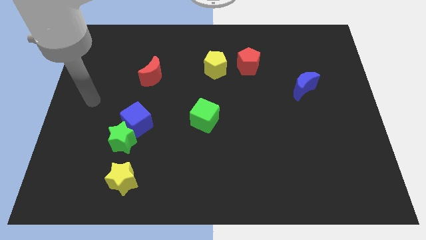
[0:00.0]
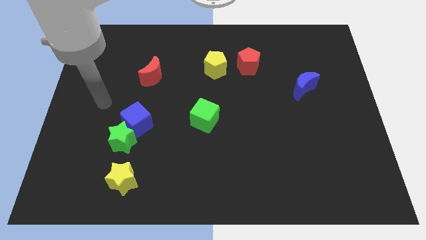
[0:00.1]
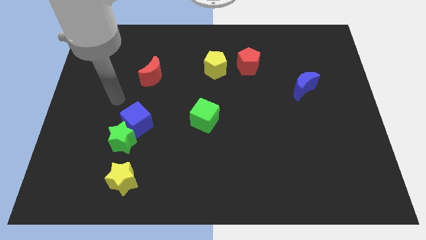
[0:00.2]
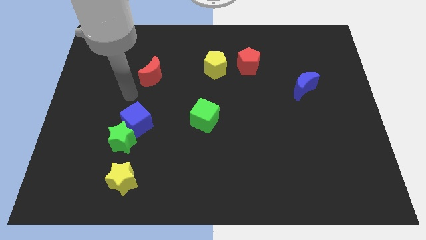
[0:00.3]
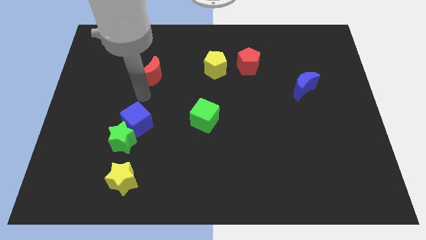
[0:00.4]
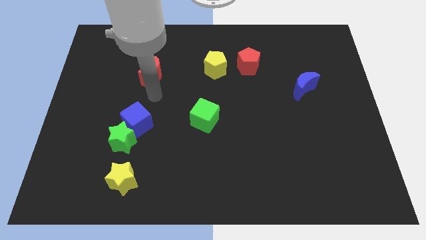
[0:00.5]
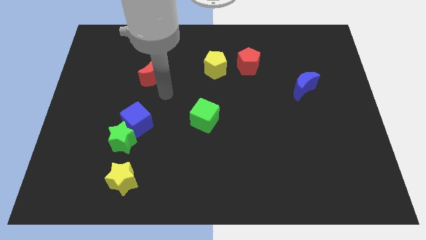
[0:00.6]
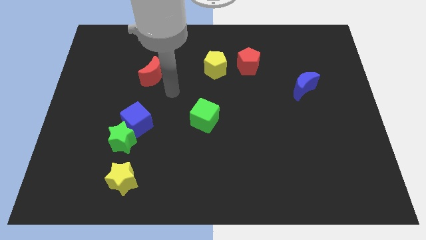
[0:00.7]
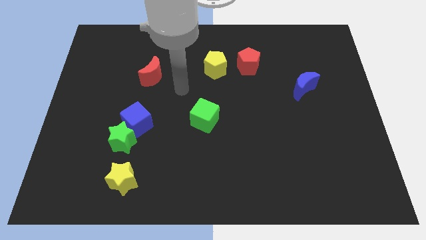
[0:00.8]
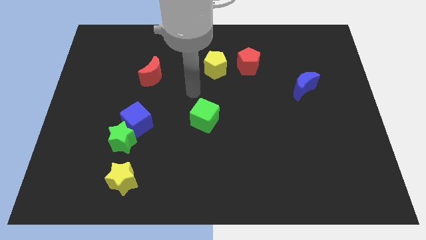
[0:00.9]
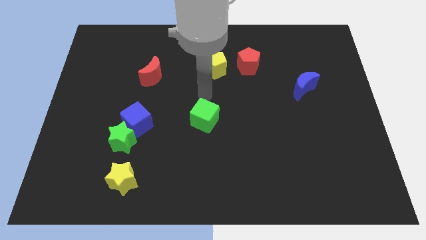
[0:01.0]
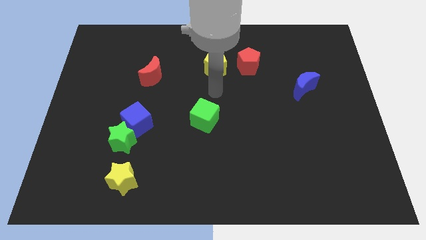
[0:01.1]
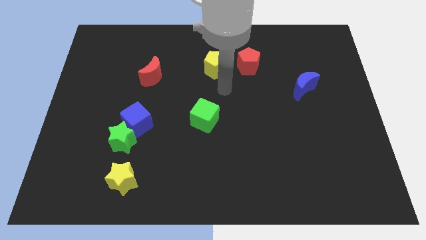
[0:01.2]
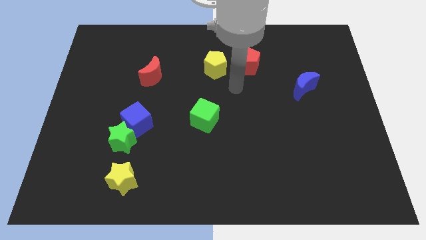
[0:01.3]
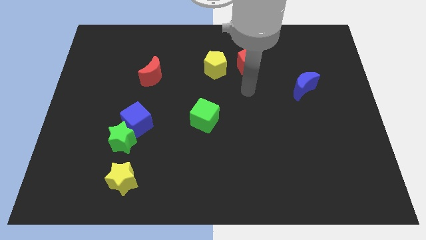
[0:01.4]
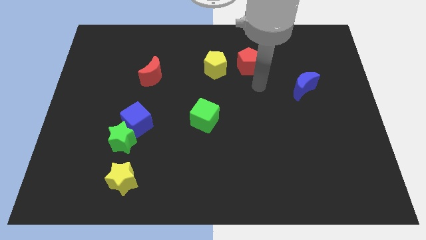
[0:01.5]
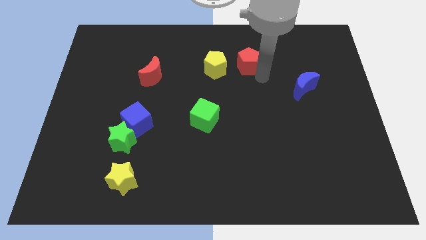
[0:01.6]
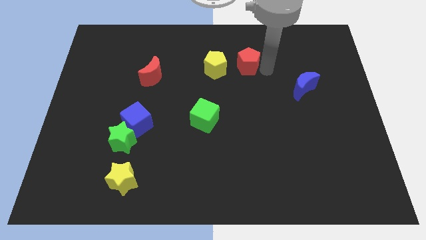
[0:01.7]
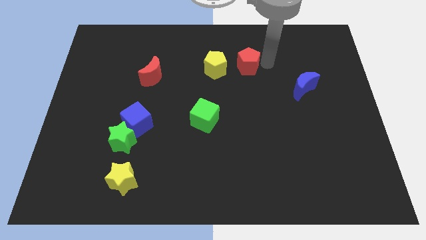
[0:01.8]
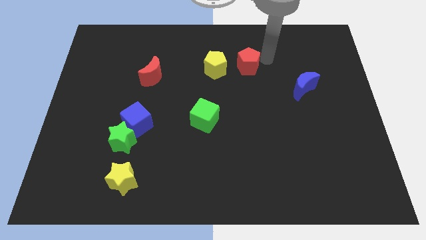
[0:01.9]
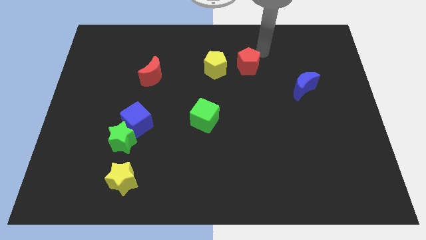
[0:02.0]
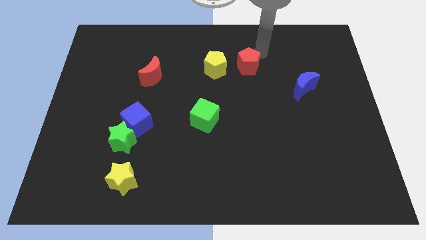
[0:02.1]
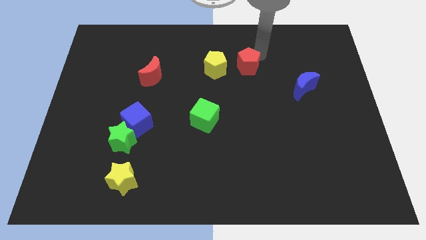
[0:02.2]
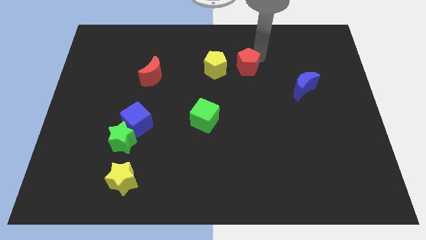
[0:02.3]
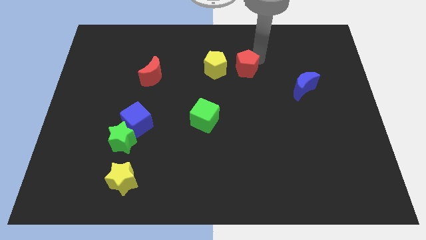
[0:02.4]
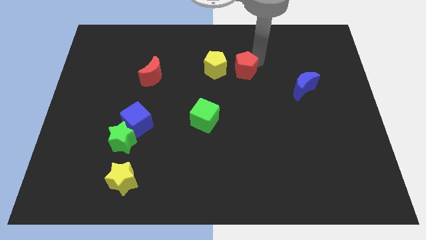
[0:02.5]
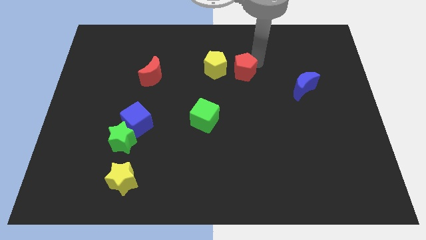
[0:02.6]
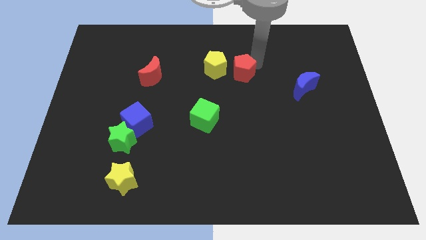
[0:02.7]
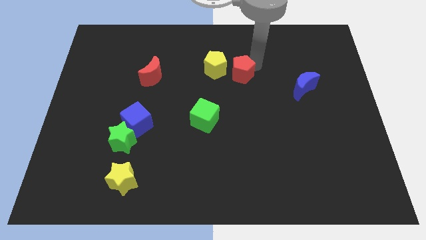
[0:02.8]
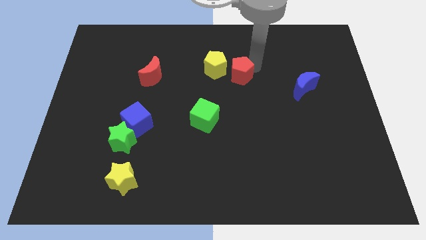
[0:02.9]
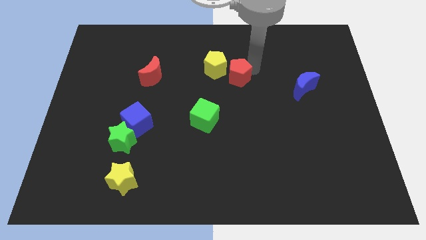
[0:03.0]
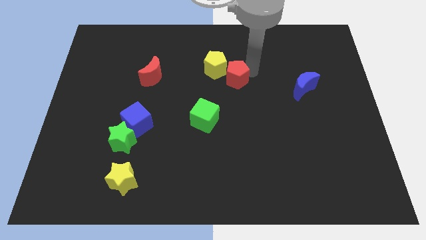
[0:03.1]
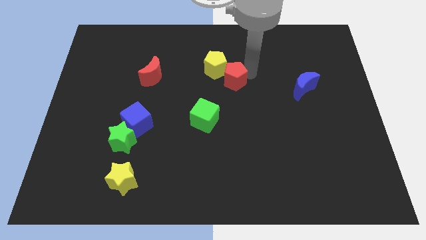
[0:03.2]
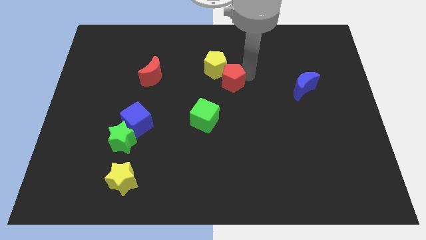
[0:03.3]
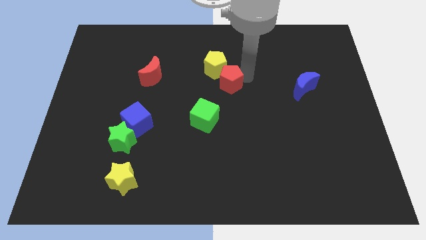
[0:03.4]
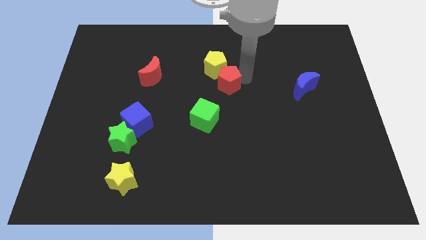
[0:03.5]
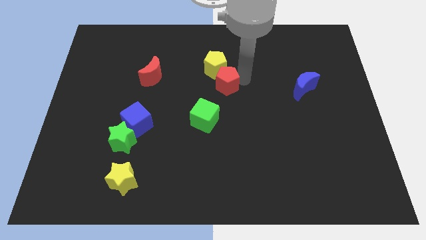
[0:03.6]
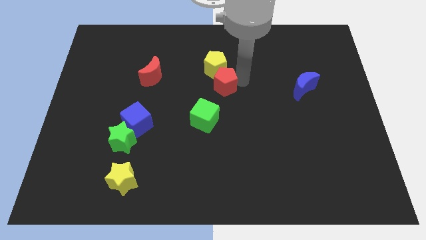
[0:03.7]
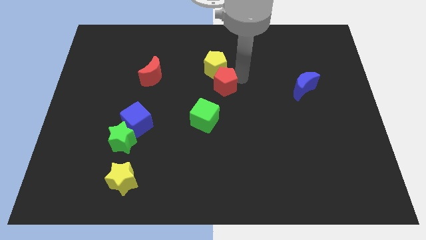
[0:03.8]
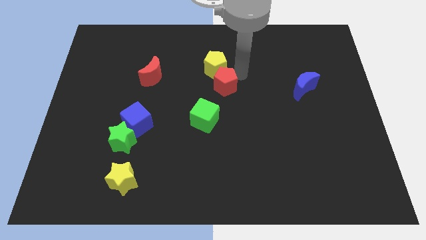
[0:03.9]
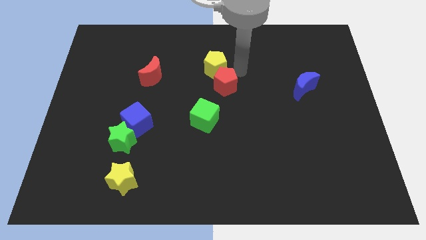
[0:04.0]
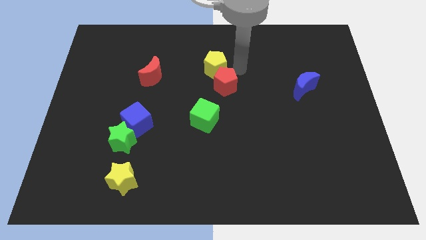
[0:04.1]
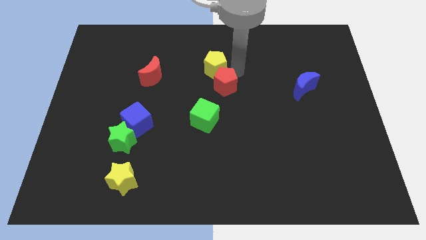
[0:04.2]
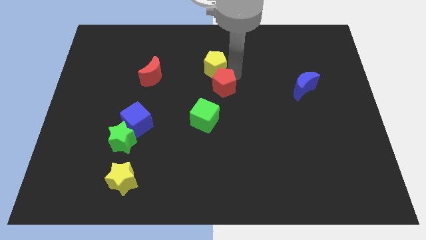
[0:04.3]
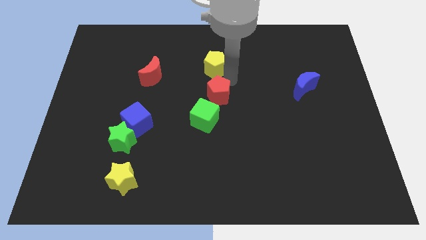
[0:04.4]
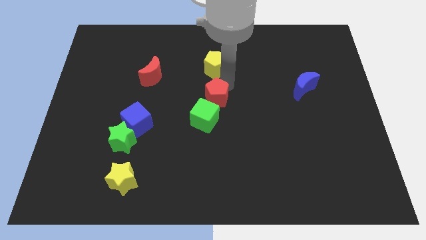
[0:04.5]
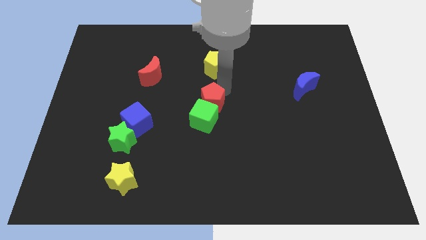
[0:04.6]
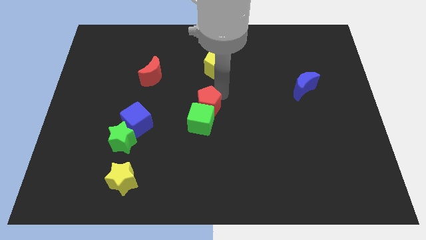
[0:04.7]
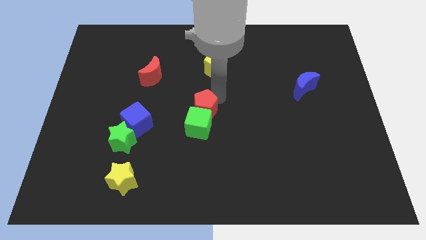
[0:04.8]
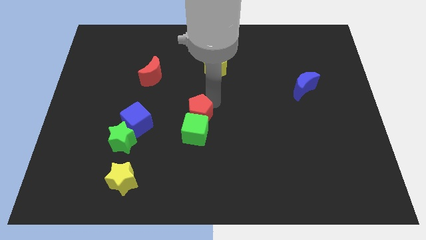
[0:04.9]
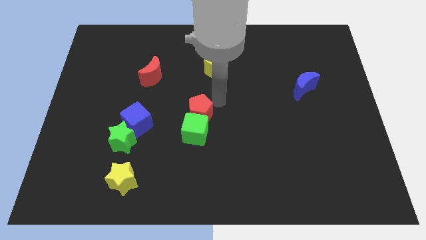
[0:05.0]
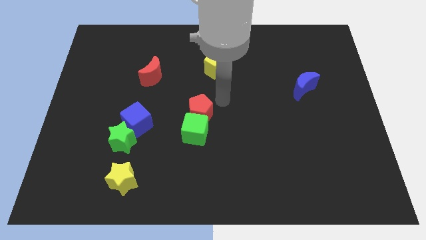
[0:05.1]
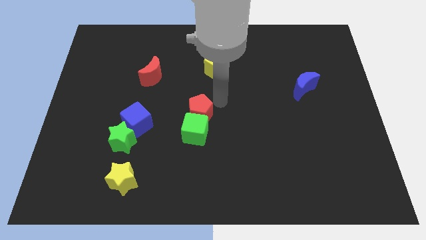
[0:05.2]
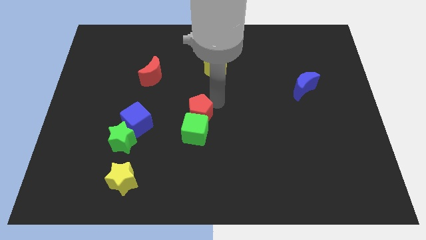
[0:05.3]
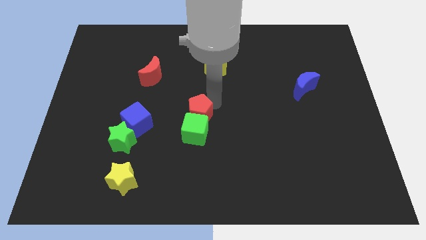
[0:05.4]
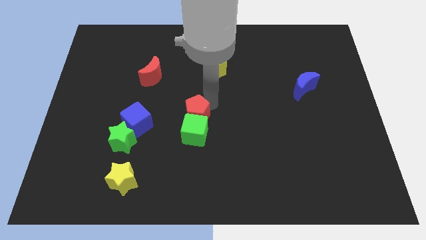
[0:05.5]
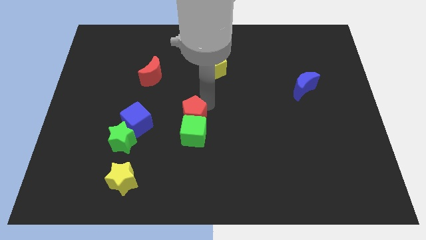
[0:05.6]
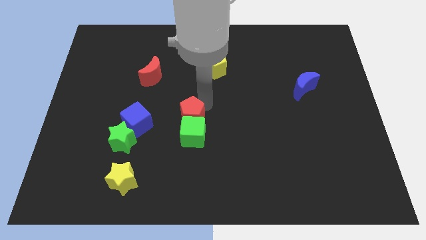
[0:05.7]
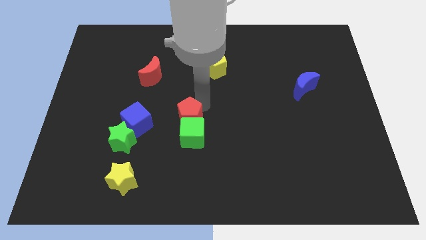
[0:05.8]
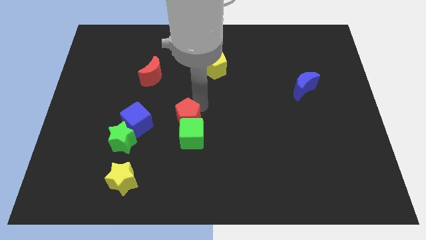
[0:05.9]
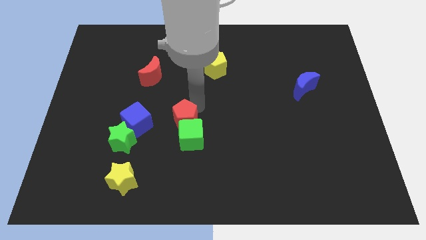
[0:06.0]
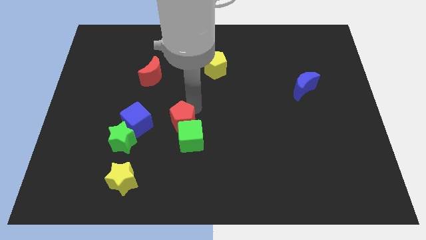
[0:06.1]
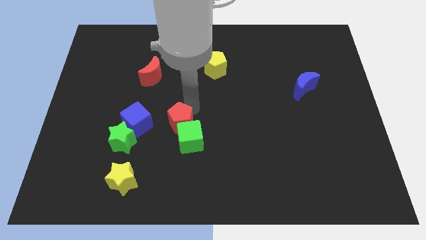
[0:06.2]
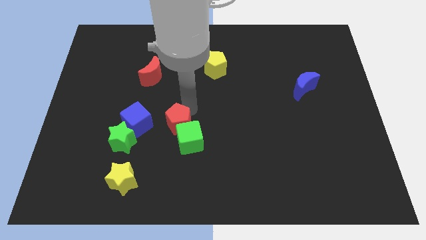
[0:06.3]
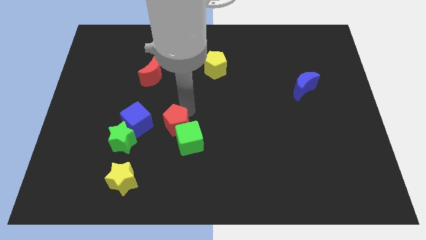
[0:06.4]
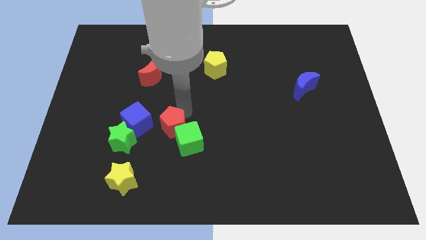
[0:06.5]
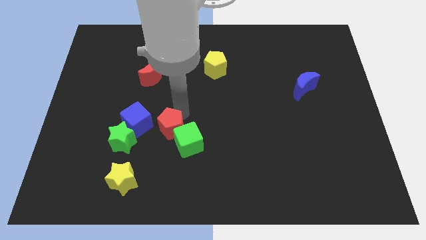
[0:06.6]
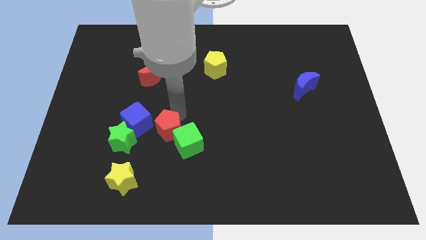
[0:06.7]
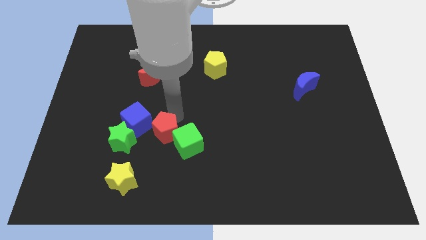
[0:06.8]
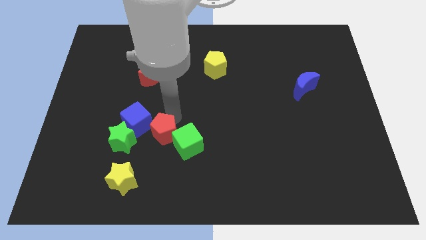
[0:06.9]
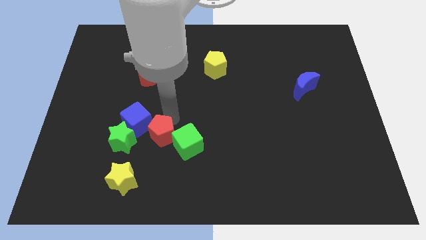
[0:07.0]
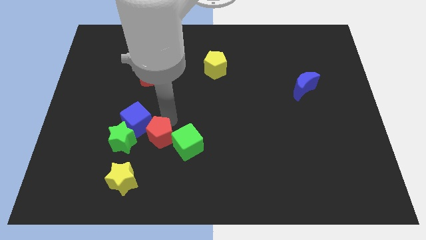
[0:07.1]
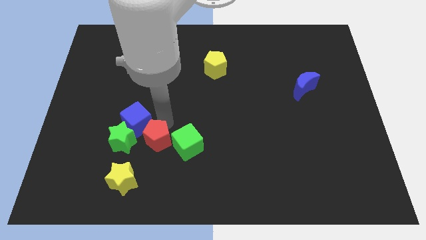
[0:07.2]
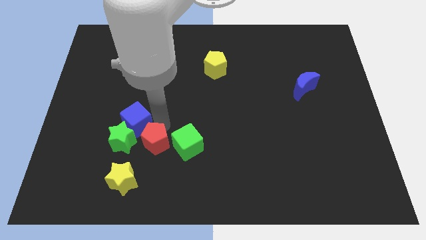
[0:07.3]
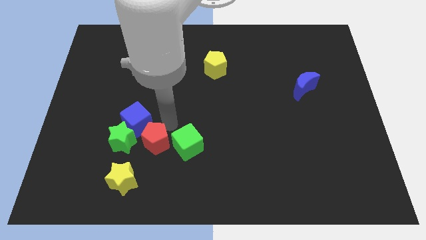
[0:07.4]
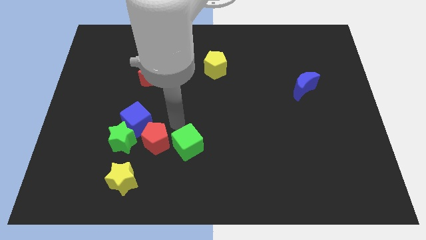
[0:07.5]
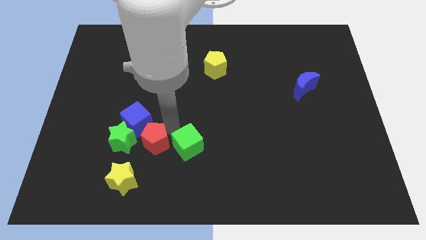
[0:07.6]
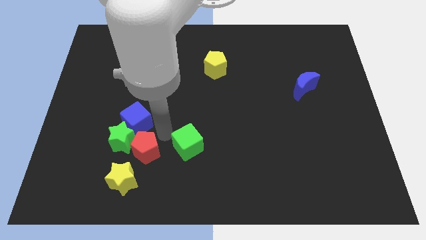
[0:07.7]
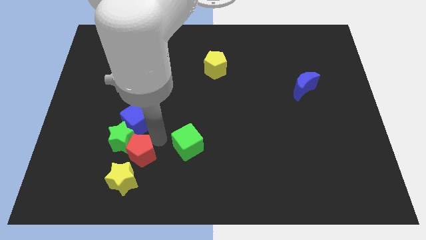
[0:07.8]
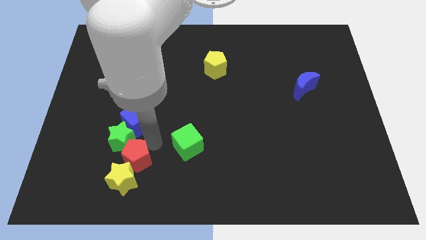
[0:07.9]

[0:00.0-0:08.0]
push the red pentagon next to the yellow star
